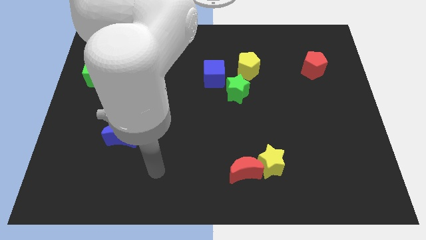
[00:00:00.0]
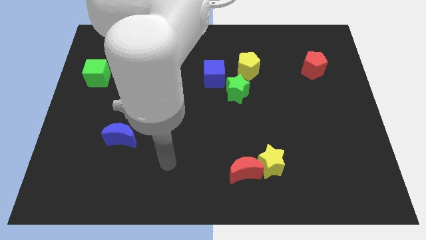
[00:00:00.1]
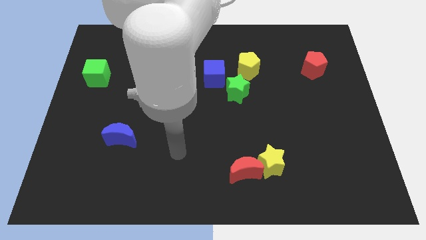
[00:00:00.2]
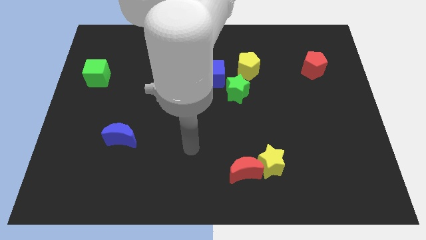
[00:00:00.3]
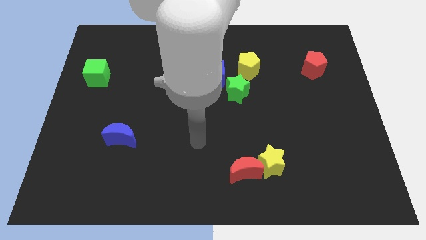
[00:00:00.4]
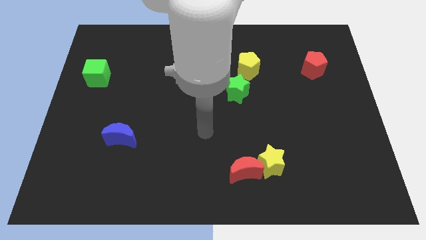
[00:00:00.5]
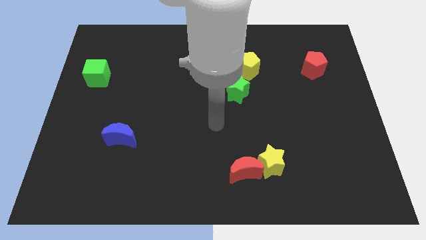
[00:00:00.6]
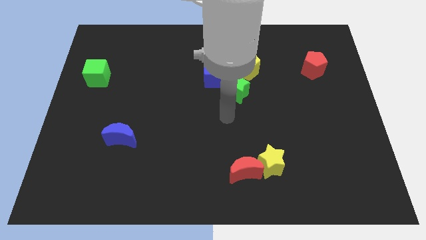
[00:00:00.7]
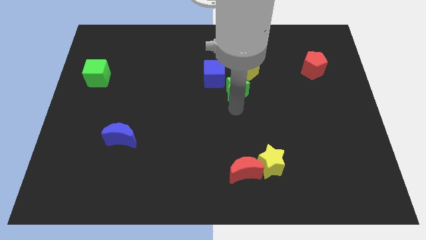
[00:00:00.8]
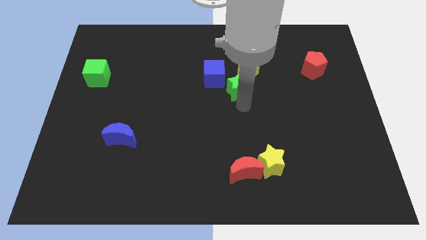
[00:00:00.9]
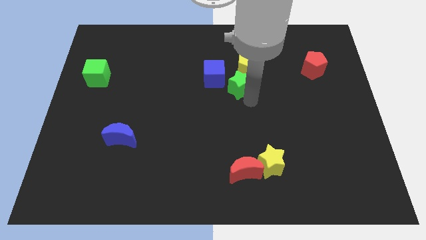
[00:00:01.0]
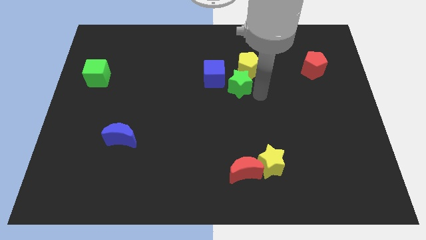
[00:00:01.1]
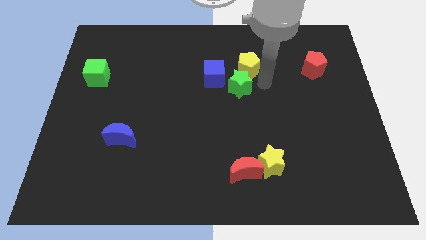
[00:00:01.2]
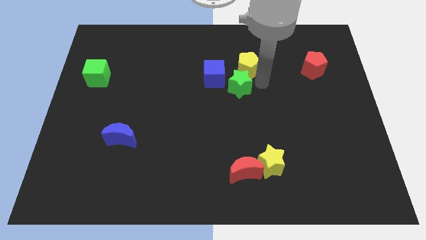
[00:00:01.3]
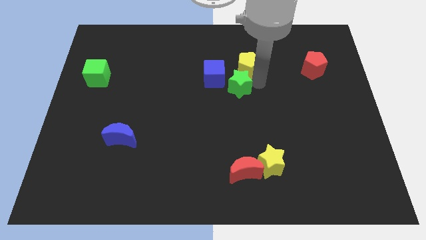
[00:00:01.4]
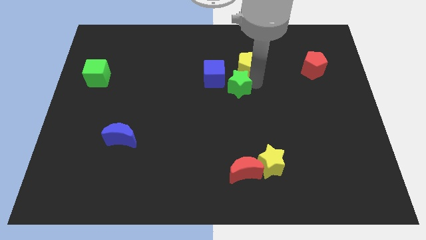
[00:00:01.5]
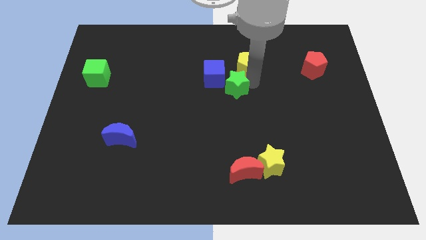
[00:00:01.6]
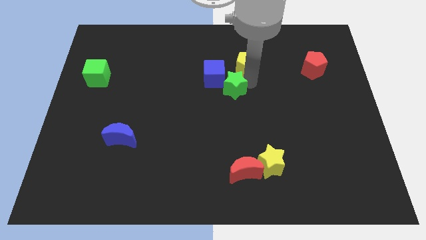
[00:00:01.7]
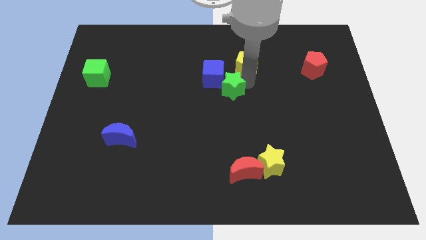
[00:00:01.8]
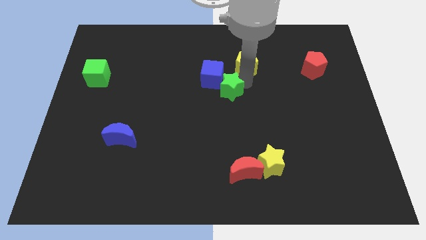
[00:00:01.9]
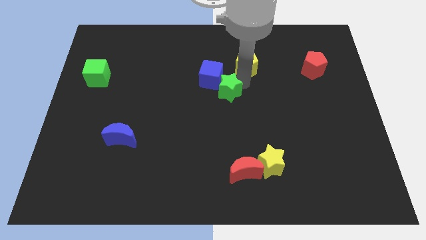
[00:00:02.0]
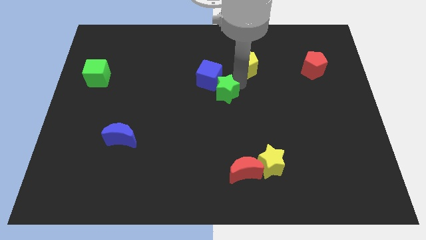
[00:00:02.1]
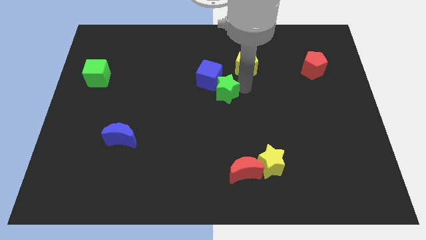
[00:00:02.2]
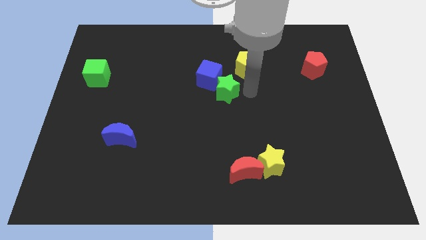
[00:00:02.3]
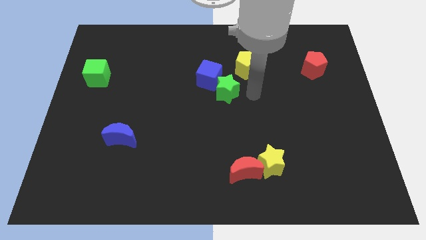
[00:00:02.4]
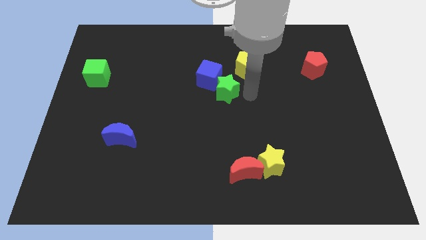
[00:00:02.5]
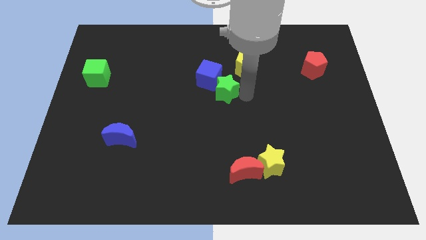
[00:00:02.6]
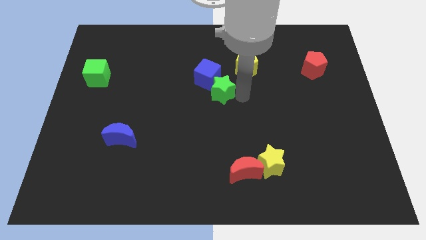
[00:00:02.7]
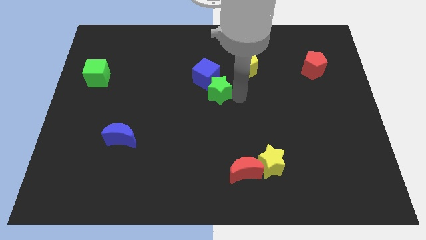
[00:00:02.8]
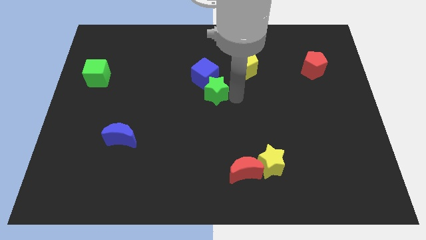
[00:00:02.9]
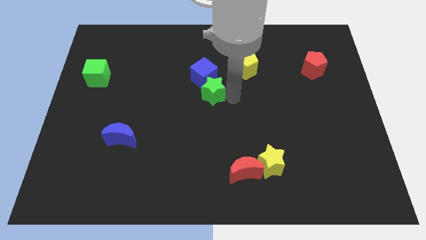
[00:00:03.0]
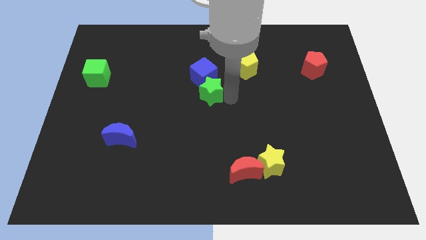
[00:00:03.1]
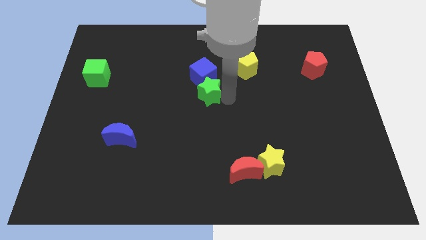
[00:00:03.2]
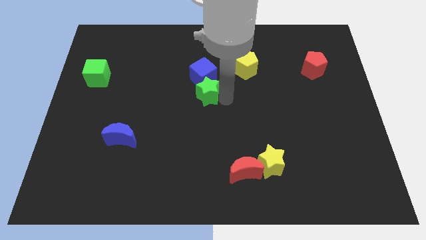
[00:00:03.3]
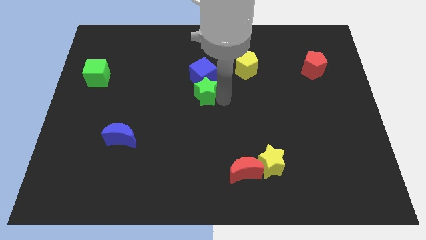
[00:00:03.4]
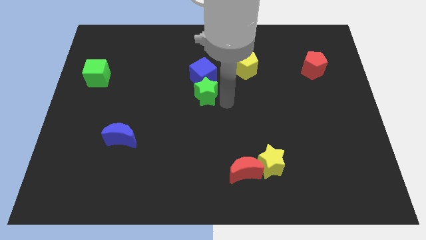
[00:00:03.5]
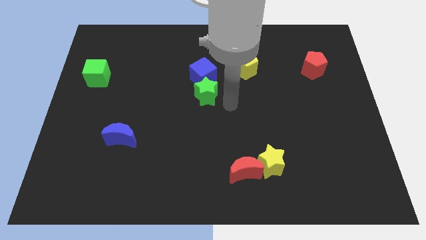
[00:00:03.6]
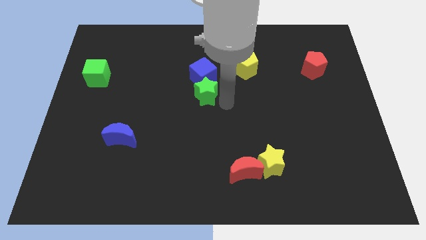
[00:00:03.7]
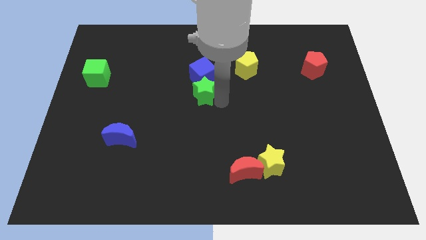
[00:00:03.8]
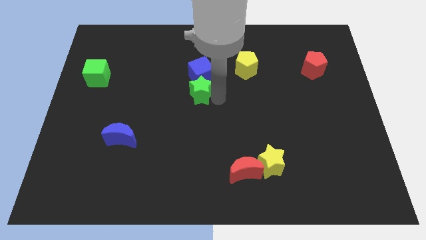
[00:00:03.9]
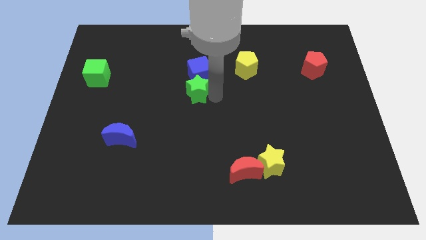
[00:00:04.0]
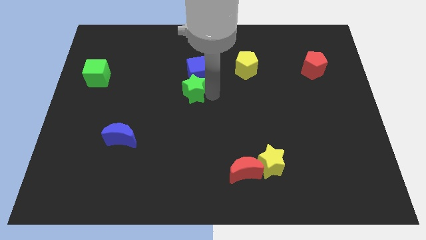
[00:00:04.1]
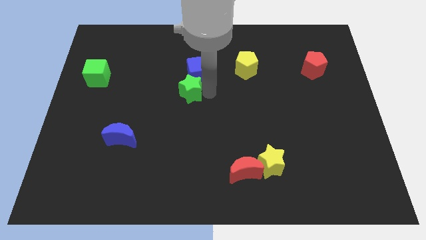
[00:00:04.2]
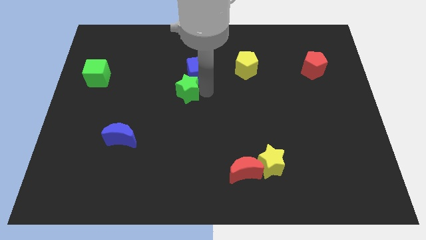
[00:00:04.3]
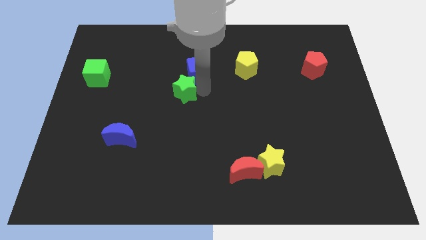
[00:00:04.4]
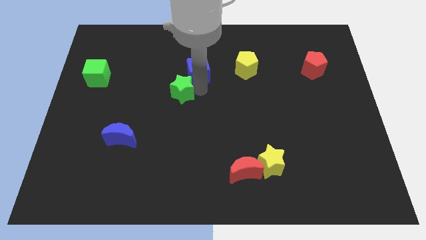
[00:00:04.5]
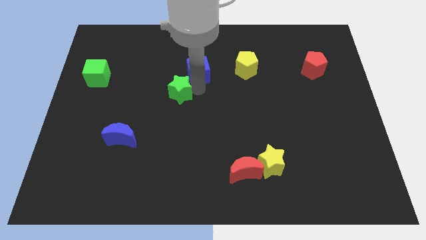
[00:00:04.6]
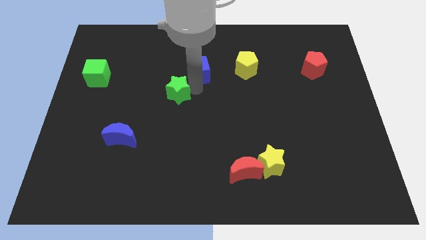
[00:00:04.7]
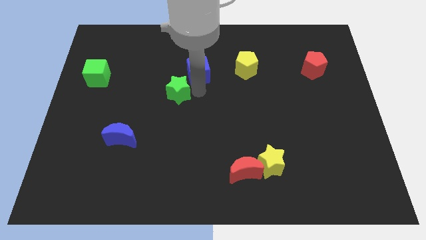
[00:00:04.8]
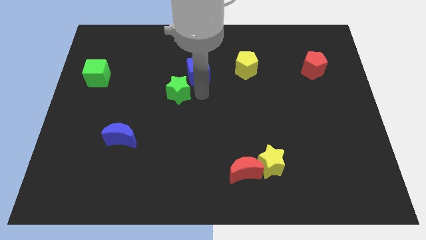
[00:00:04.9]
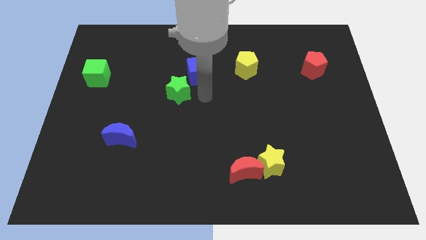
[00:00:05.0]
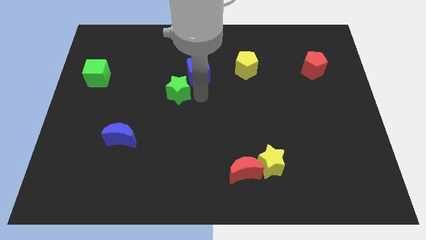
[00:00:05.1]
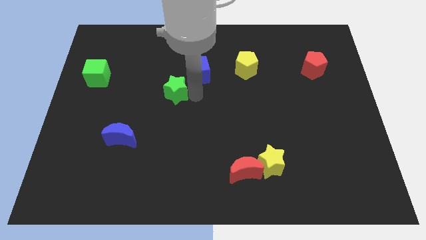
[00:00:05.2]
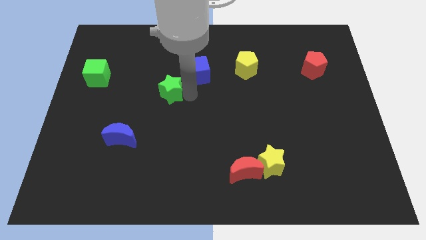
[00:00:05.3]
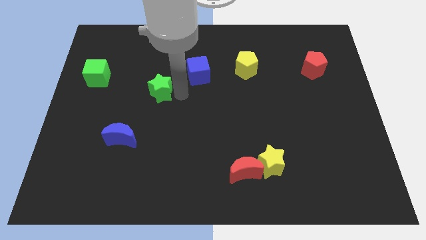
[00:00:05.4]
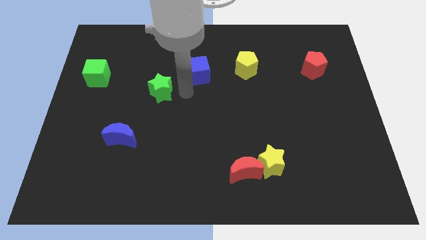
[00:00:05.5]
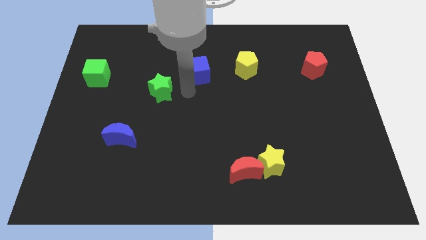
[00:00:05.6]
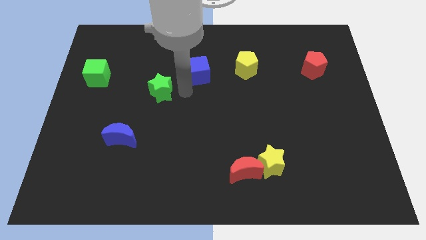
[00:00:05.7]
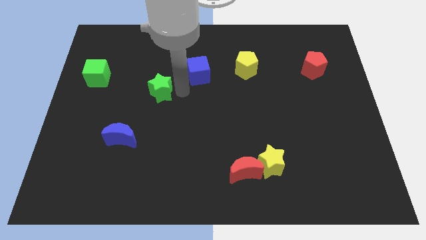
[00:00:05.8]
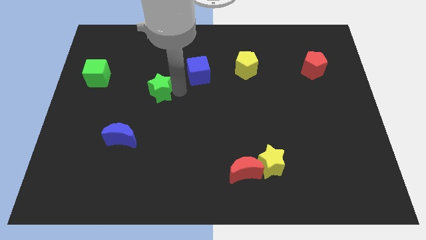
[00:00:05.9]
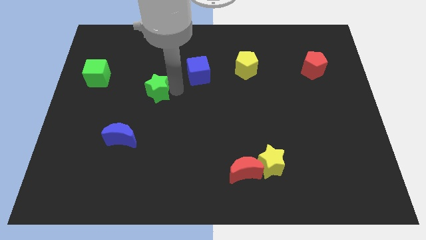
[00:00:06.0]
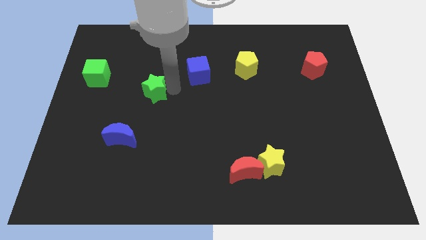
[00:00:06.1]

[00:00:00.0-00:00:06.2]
move the green star to the left

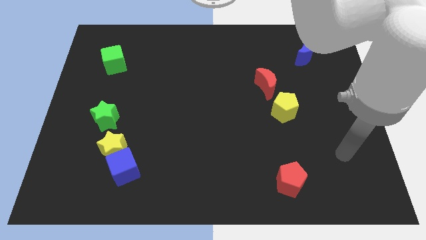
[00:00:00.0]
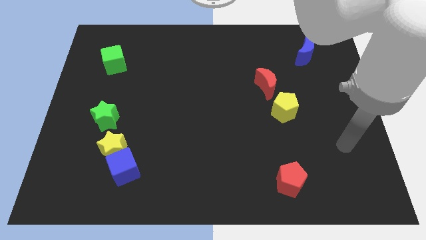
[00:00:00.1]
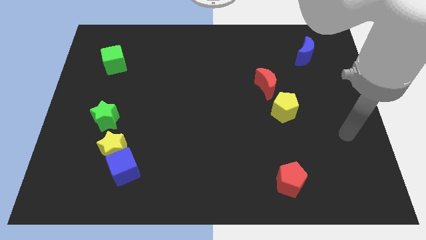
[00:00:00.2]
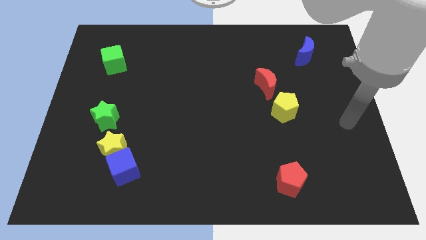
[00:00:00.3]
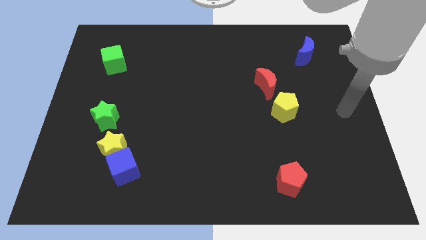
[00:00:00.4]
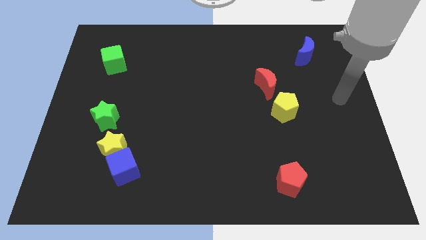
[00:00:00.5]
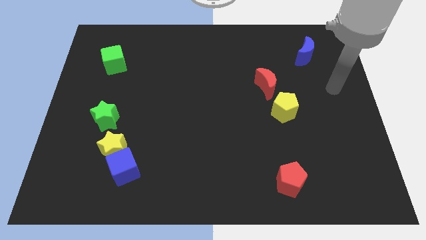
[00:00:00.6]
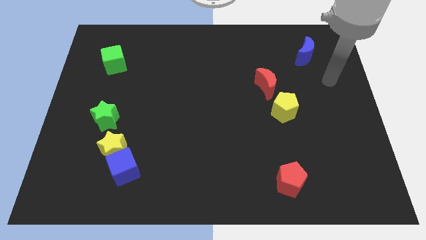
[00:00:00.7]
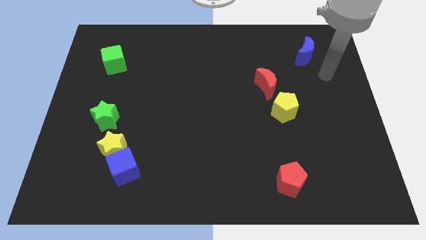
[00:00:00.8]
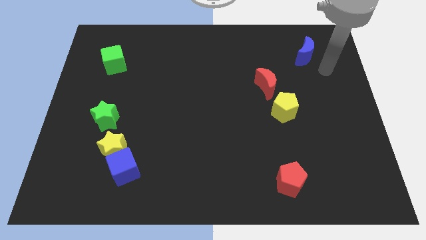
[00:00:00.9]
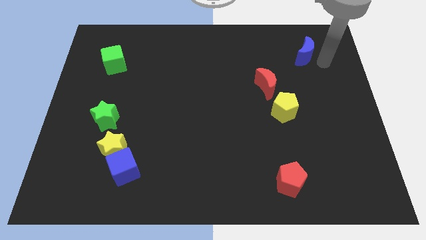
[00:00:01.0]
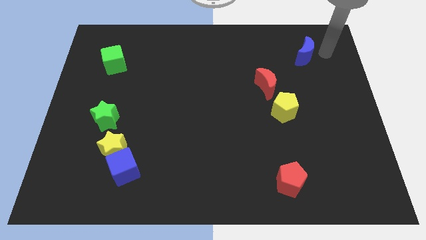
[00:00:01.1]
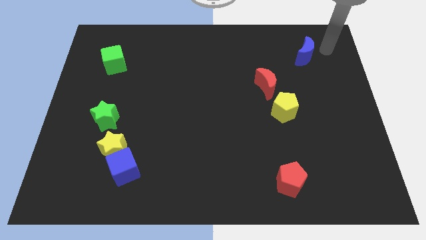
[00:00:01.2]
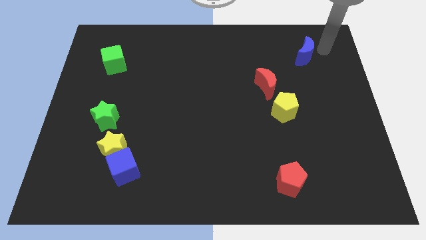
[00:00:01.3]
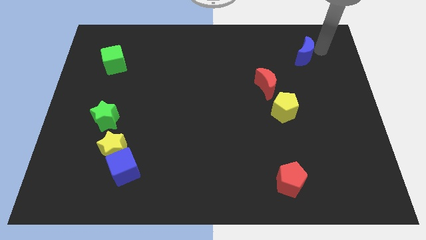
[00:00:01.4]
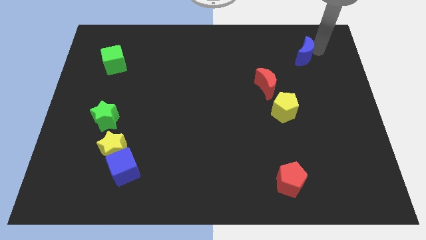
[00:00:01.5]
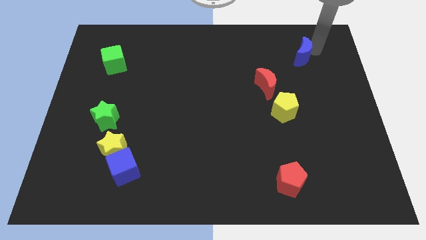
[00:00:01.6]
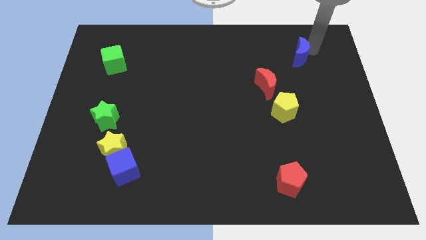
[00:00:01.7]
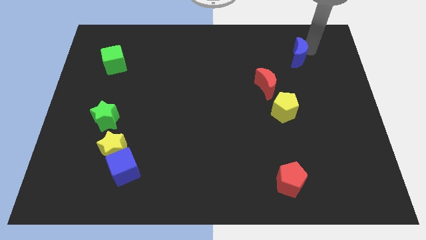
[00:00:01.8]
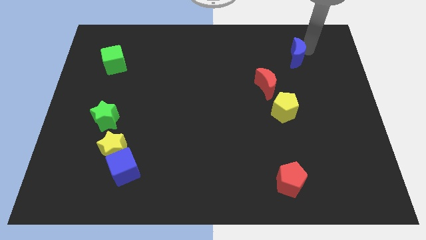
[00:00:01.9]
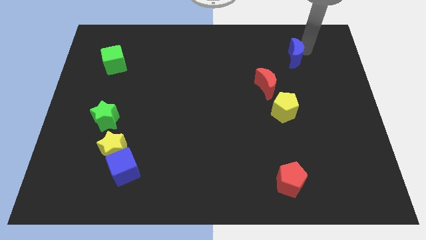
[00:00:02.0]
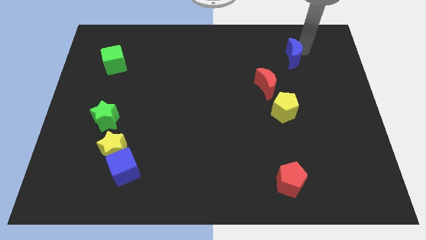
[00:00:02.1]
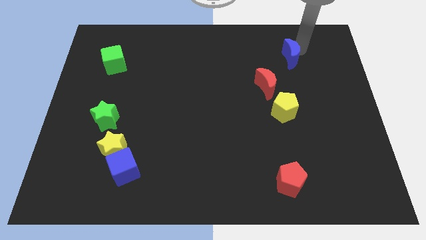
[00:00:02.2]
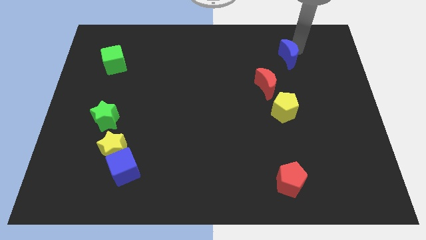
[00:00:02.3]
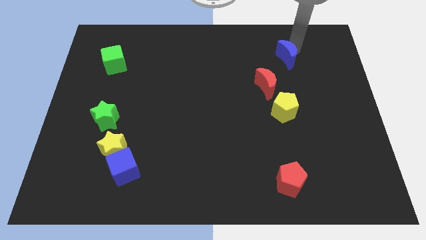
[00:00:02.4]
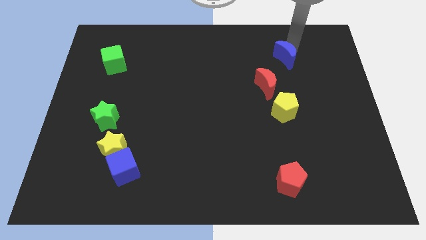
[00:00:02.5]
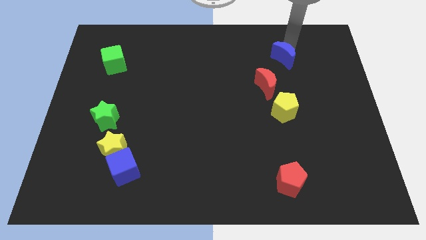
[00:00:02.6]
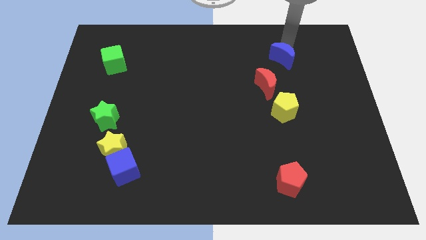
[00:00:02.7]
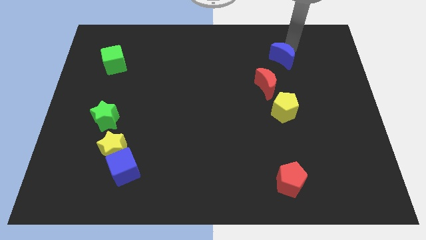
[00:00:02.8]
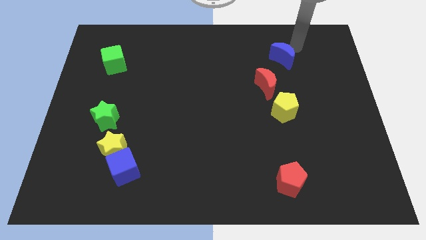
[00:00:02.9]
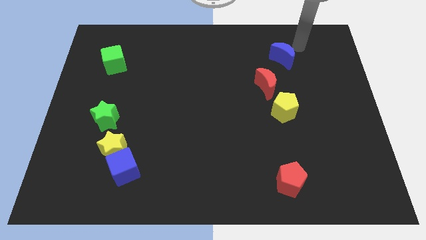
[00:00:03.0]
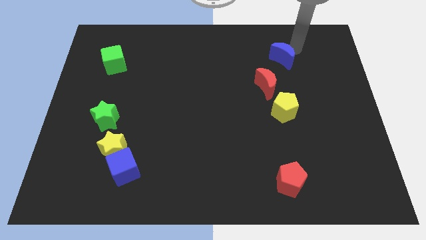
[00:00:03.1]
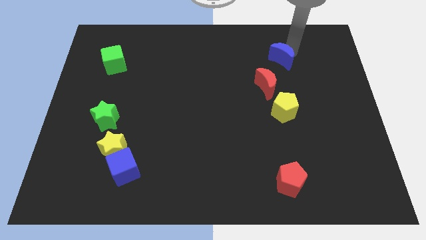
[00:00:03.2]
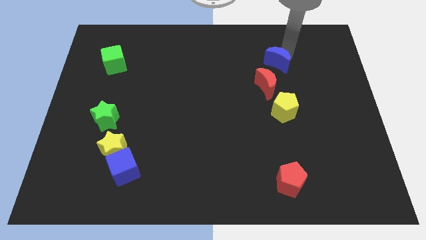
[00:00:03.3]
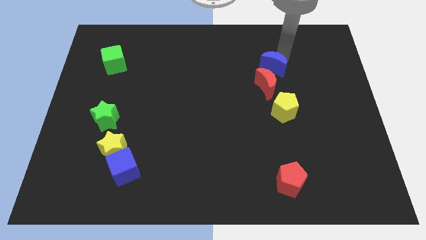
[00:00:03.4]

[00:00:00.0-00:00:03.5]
slide the blue moon a bit downwards and left diagonally
